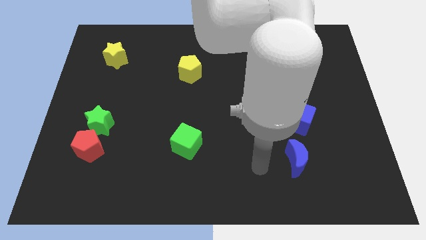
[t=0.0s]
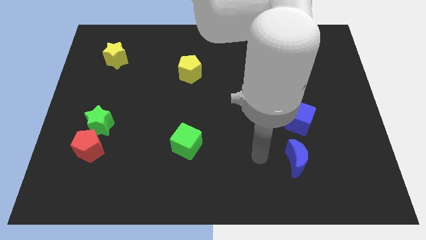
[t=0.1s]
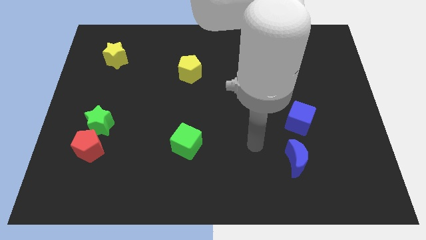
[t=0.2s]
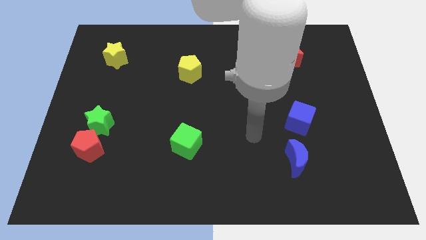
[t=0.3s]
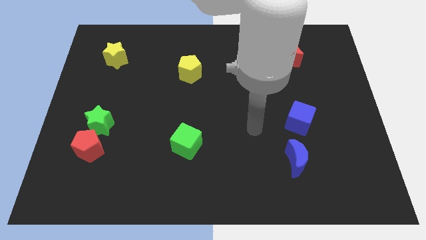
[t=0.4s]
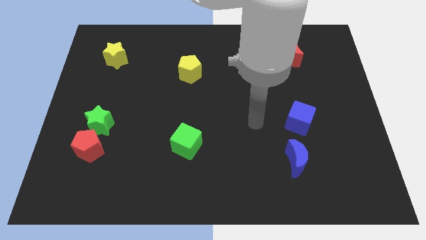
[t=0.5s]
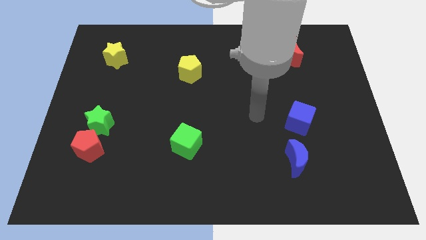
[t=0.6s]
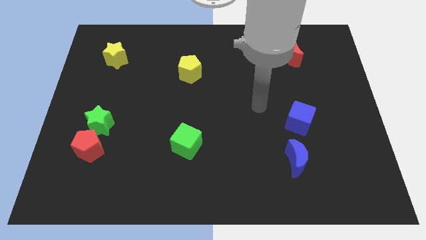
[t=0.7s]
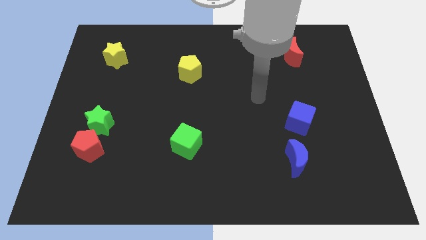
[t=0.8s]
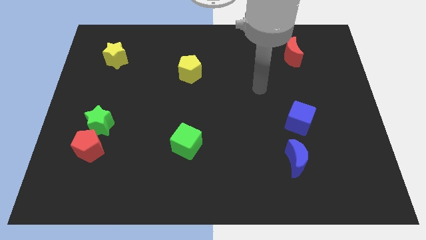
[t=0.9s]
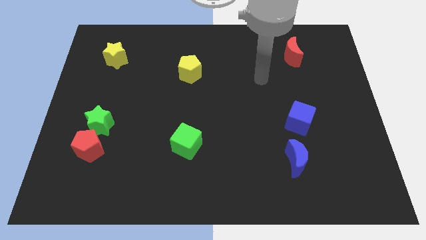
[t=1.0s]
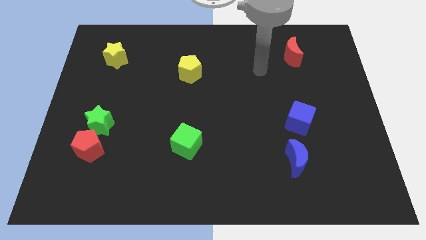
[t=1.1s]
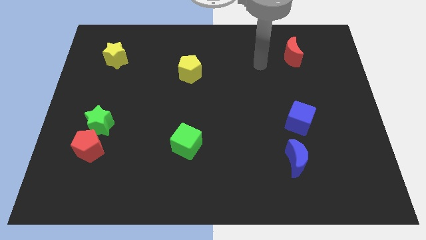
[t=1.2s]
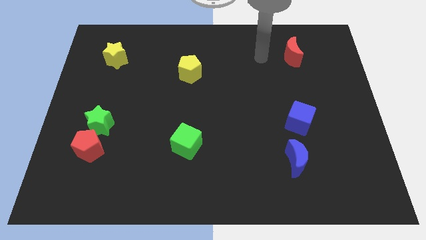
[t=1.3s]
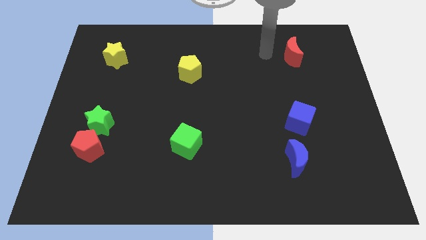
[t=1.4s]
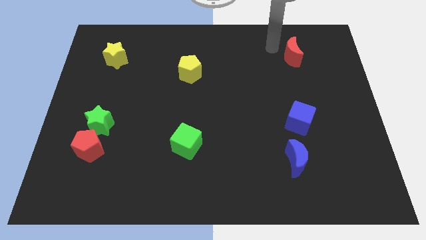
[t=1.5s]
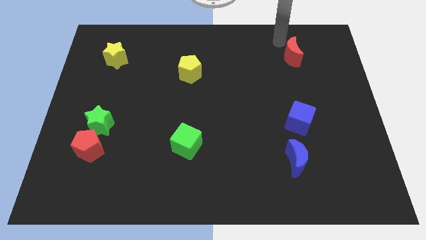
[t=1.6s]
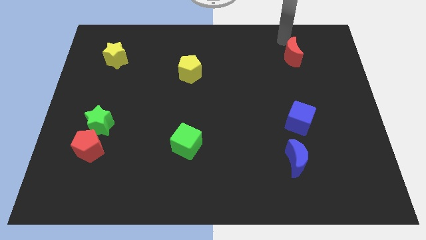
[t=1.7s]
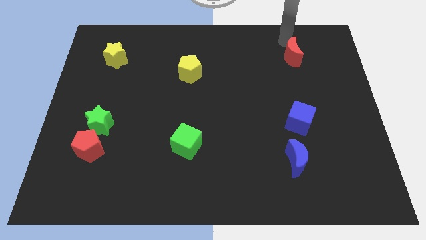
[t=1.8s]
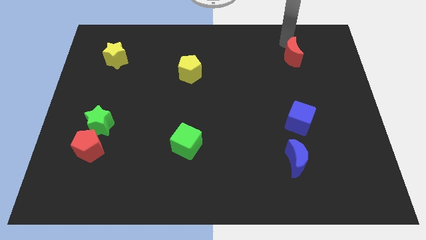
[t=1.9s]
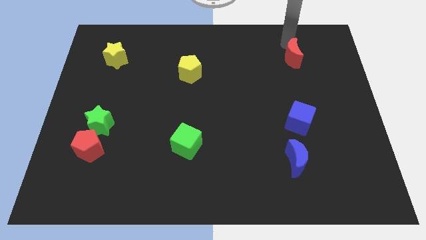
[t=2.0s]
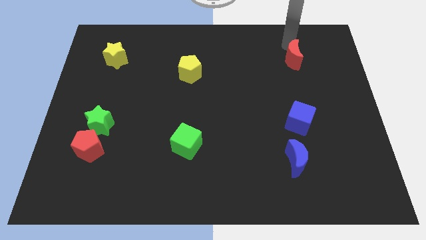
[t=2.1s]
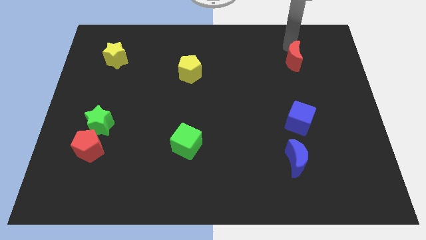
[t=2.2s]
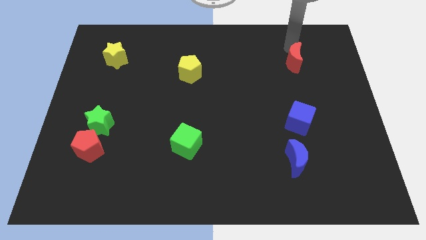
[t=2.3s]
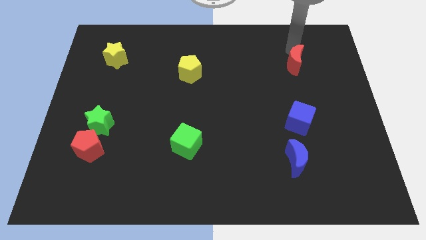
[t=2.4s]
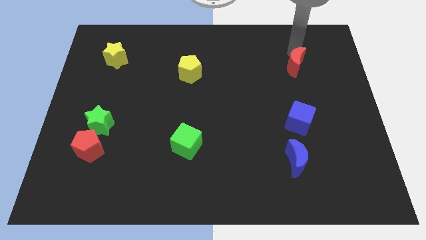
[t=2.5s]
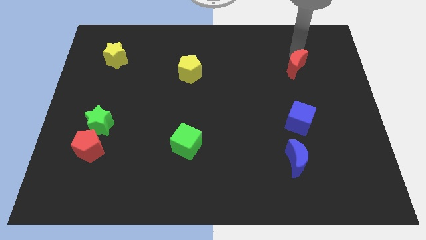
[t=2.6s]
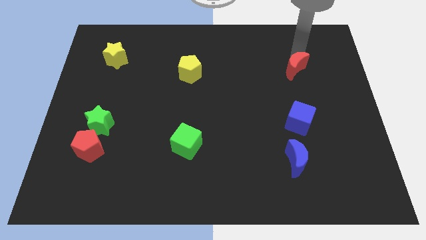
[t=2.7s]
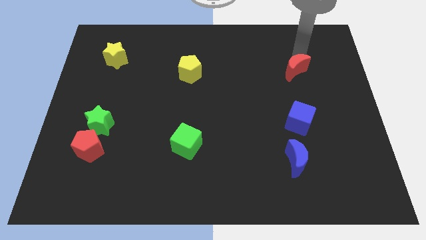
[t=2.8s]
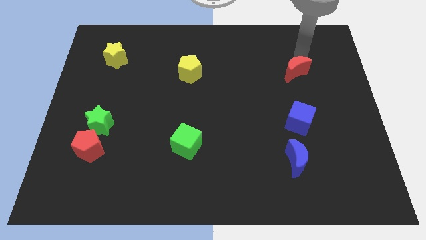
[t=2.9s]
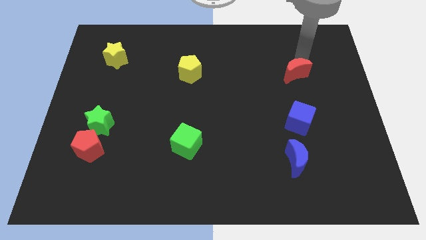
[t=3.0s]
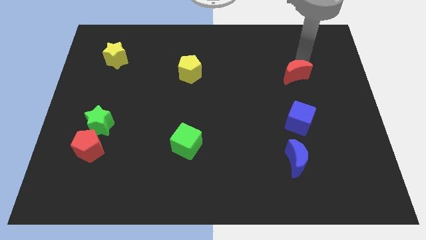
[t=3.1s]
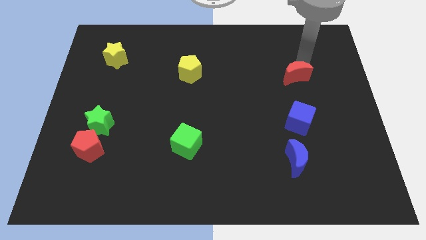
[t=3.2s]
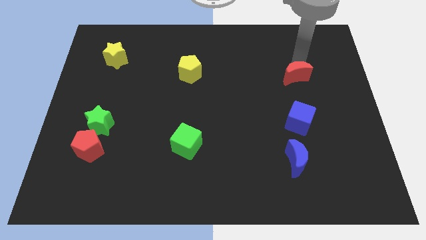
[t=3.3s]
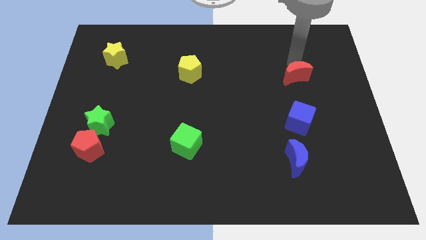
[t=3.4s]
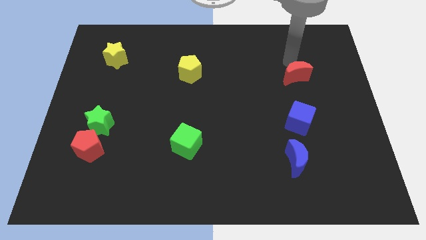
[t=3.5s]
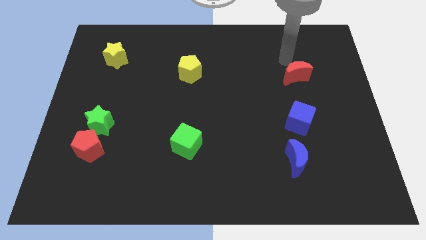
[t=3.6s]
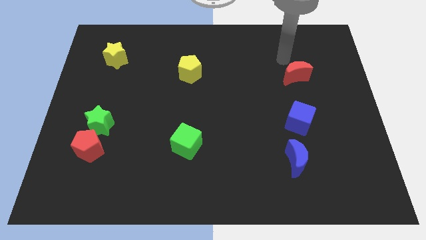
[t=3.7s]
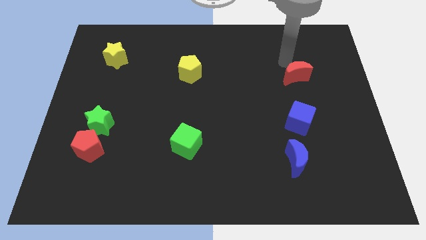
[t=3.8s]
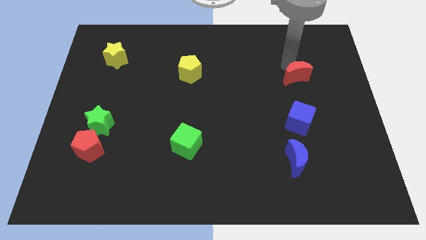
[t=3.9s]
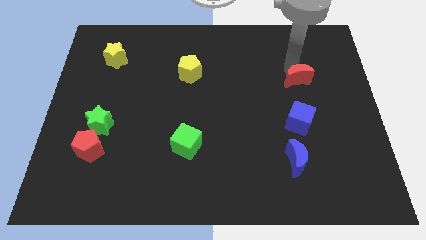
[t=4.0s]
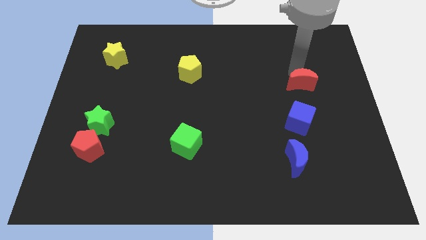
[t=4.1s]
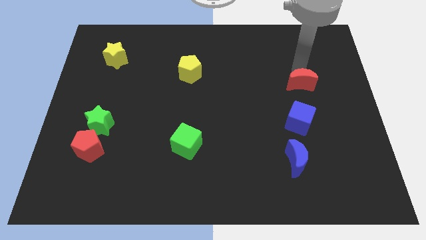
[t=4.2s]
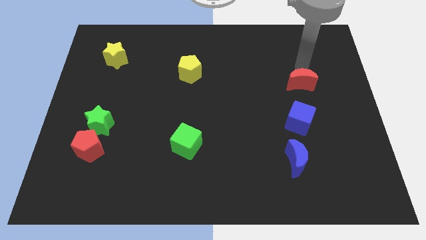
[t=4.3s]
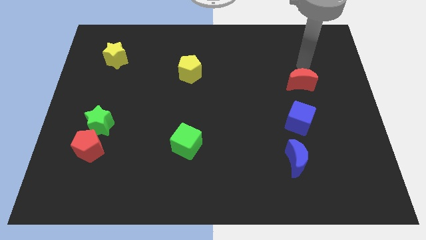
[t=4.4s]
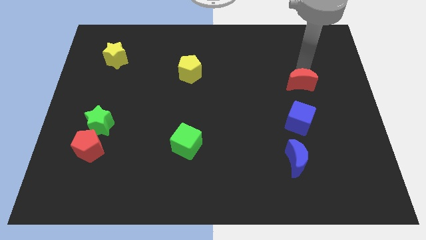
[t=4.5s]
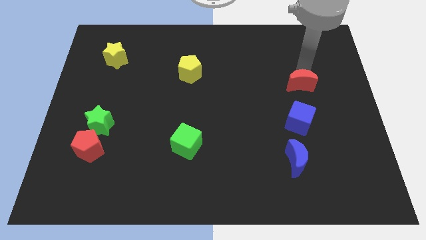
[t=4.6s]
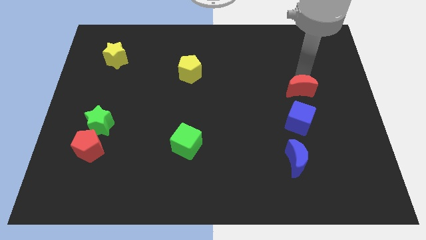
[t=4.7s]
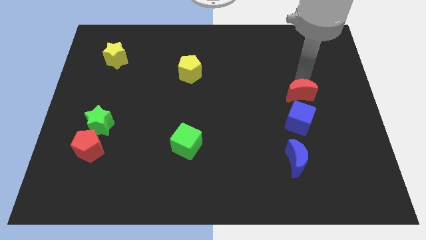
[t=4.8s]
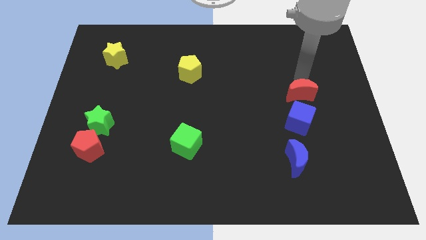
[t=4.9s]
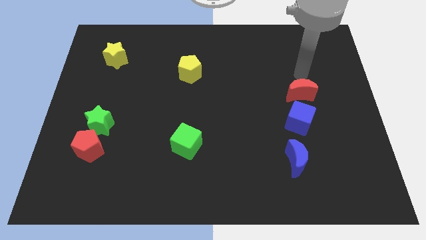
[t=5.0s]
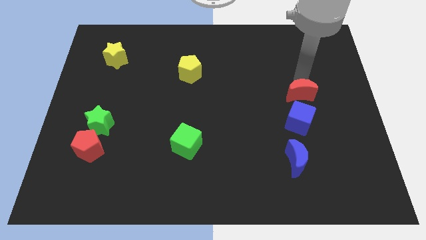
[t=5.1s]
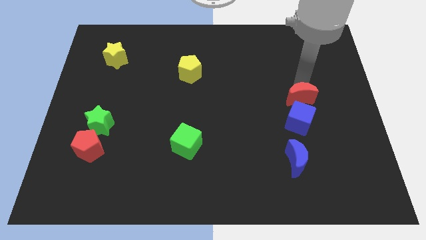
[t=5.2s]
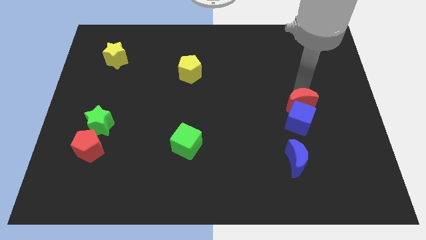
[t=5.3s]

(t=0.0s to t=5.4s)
put the red moon next to the blue cube

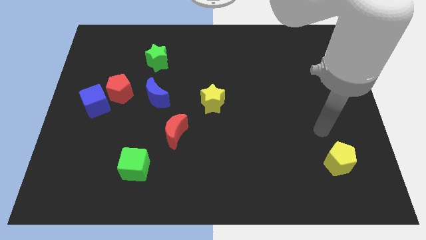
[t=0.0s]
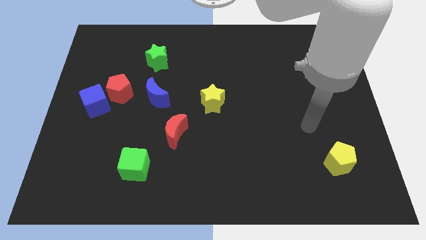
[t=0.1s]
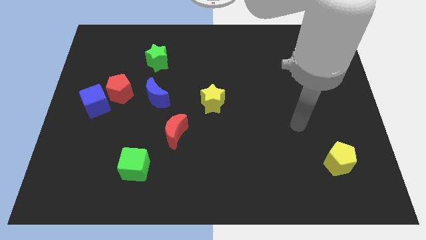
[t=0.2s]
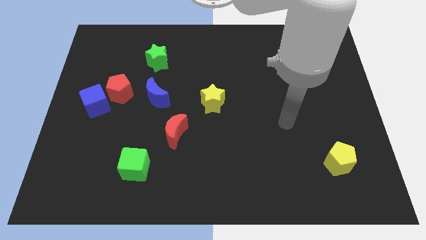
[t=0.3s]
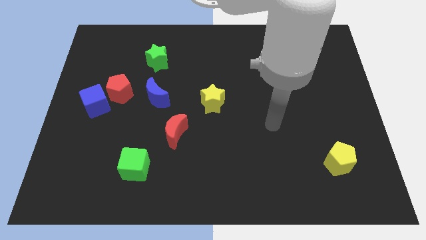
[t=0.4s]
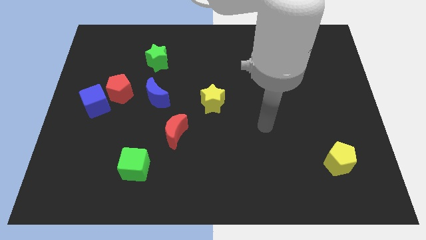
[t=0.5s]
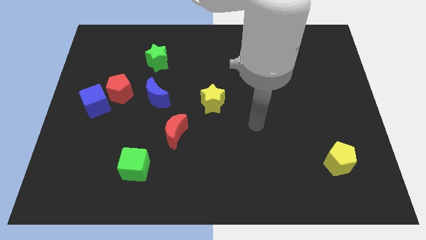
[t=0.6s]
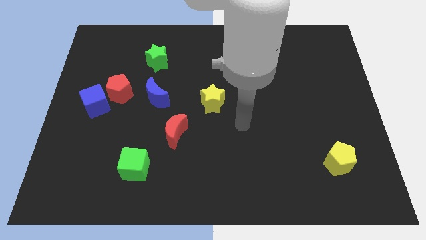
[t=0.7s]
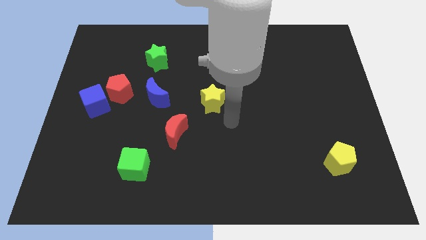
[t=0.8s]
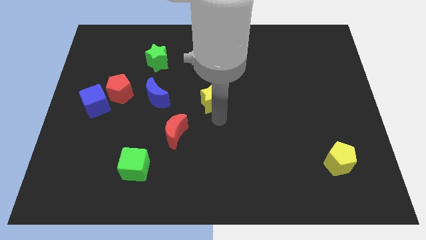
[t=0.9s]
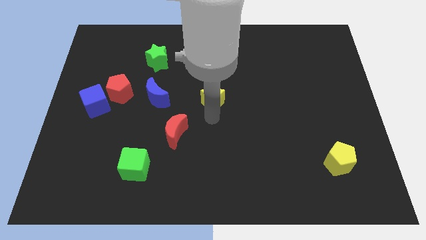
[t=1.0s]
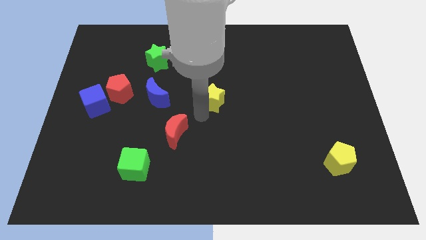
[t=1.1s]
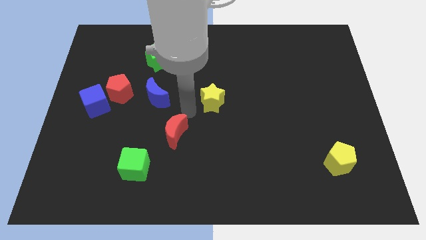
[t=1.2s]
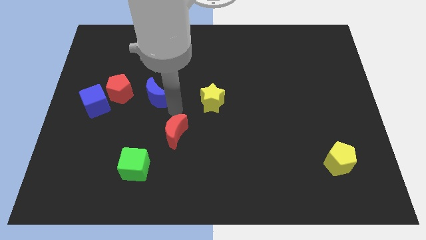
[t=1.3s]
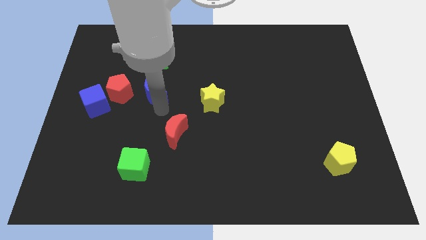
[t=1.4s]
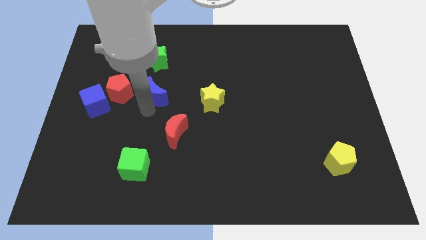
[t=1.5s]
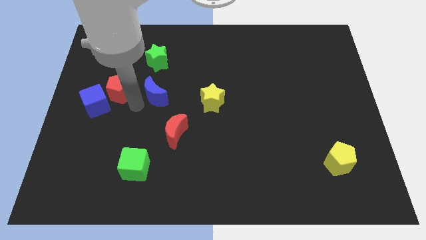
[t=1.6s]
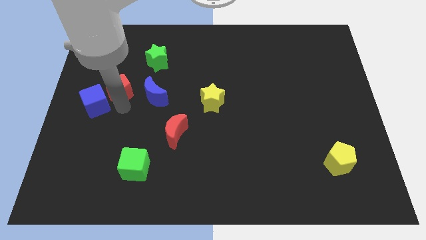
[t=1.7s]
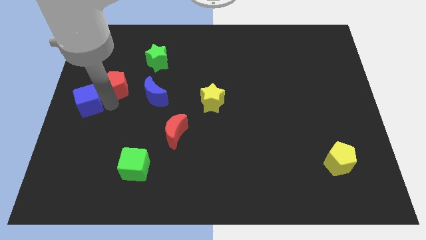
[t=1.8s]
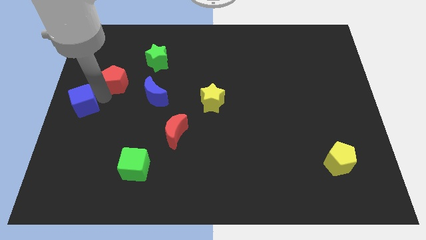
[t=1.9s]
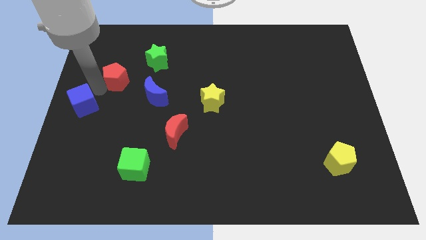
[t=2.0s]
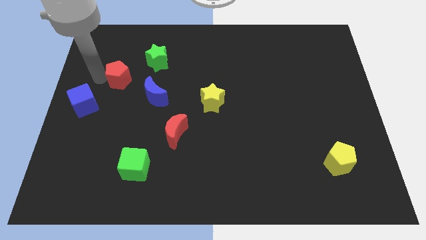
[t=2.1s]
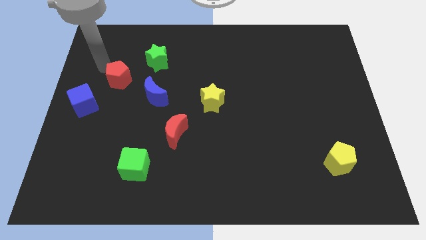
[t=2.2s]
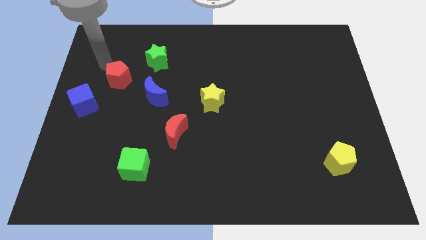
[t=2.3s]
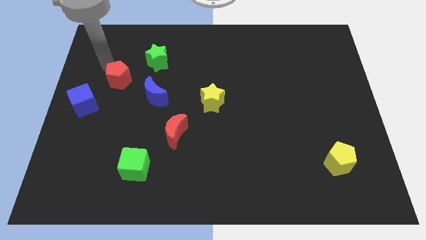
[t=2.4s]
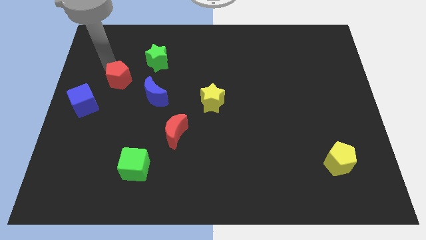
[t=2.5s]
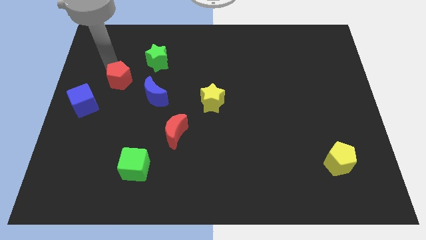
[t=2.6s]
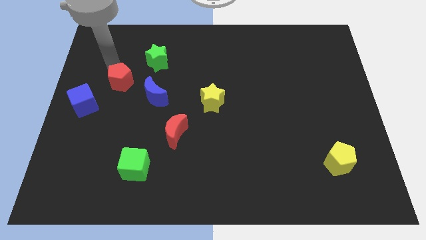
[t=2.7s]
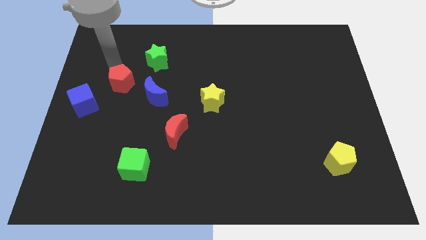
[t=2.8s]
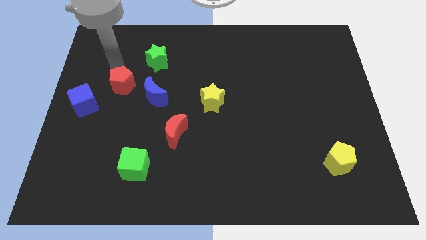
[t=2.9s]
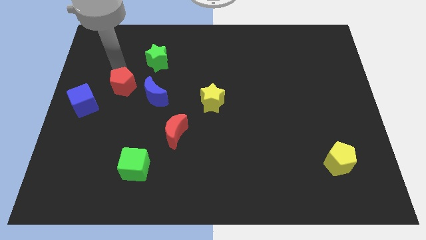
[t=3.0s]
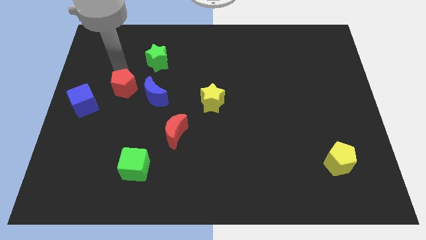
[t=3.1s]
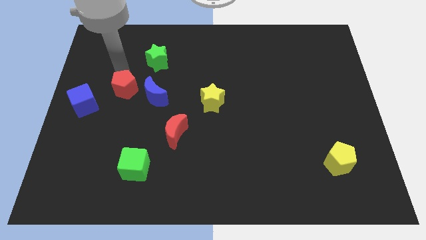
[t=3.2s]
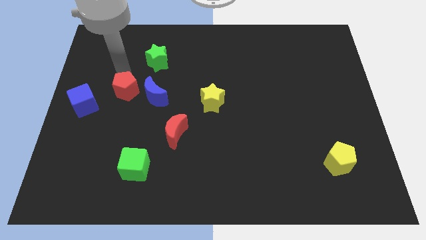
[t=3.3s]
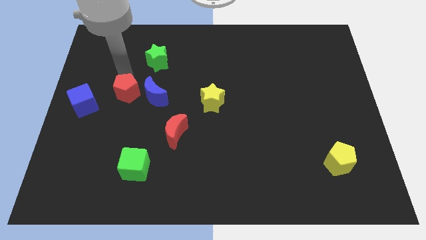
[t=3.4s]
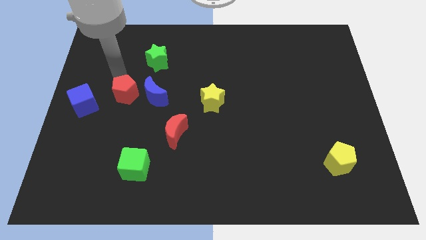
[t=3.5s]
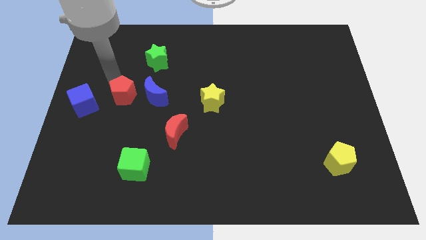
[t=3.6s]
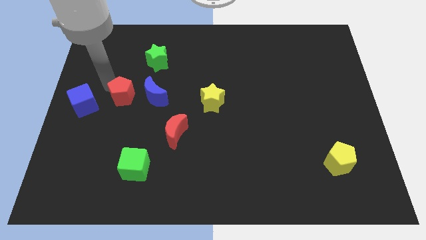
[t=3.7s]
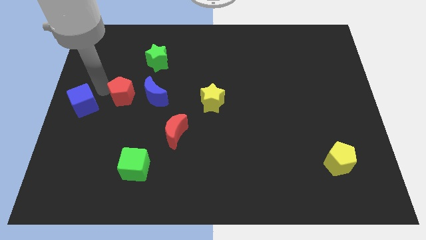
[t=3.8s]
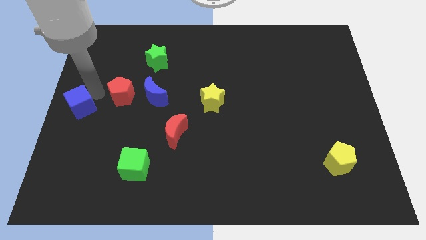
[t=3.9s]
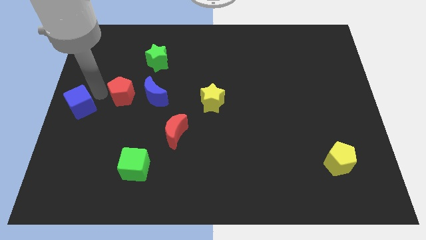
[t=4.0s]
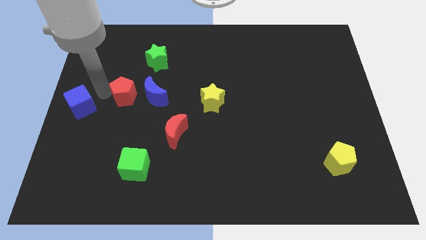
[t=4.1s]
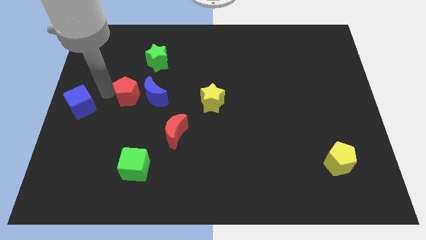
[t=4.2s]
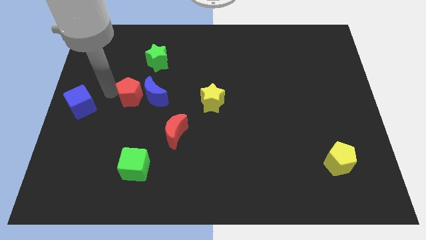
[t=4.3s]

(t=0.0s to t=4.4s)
put the red pentagon towards the blue moon
